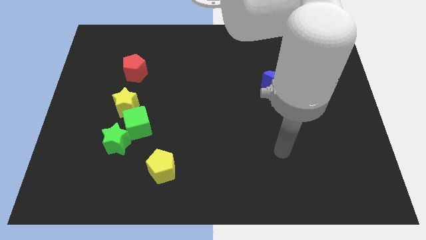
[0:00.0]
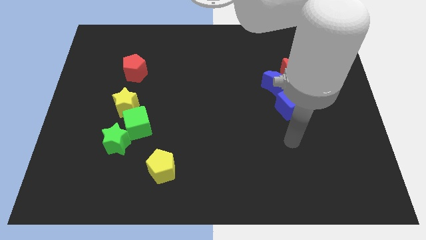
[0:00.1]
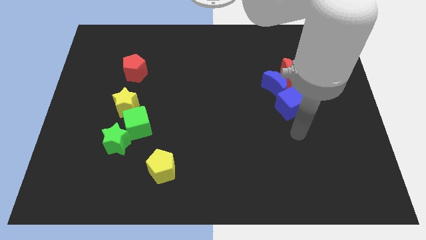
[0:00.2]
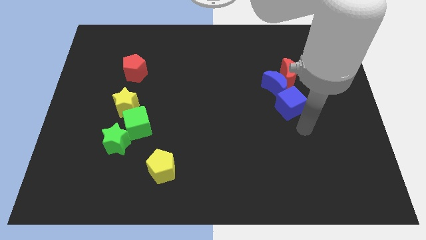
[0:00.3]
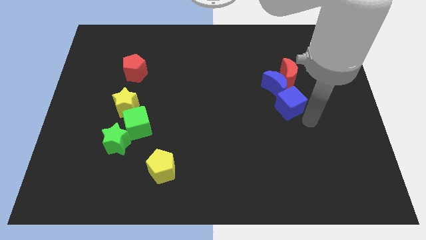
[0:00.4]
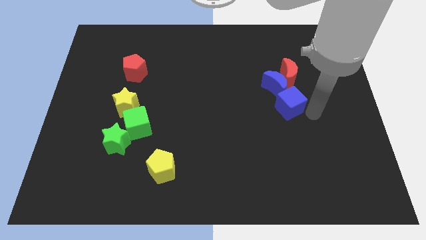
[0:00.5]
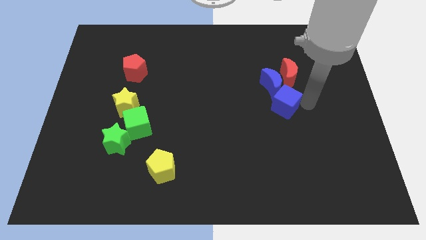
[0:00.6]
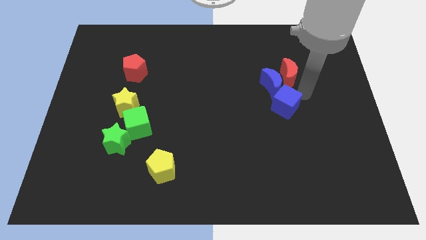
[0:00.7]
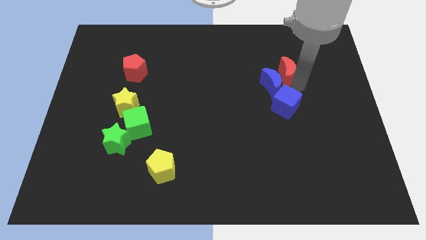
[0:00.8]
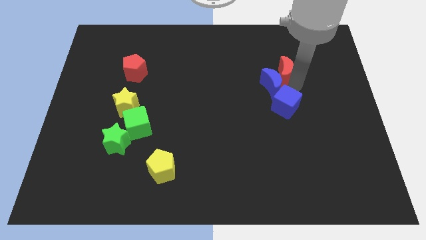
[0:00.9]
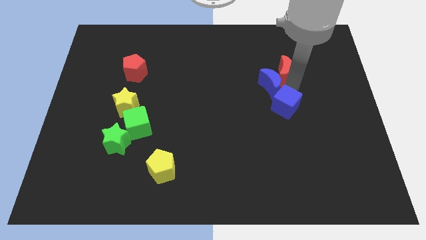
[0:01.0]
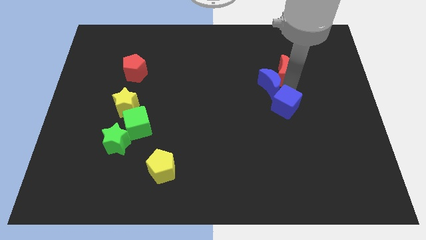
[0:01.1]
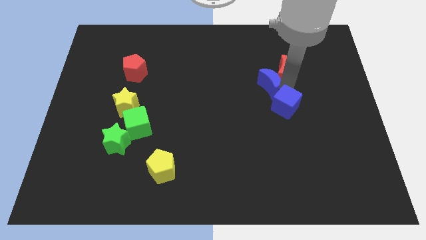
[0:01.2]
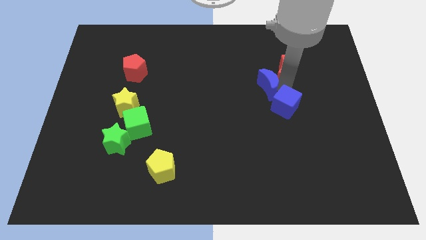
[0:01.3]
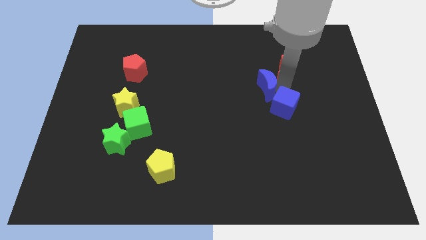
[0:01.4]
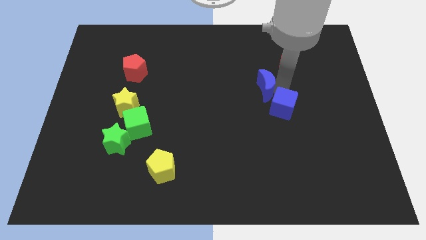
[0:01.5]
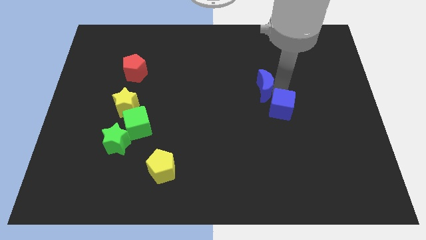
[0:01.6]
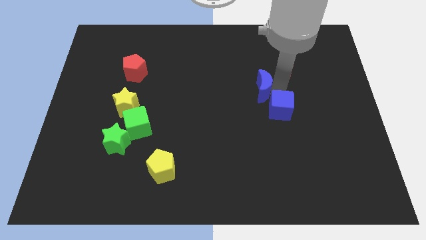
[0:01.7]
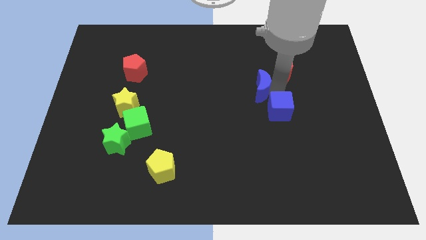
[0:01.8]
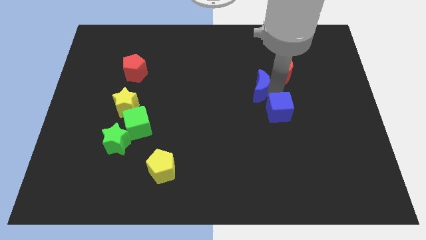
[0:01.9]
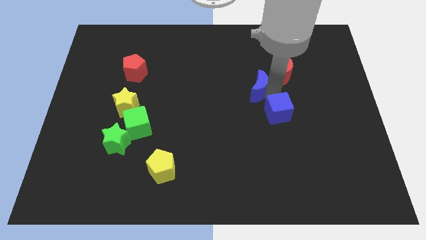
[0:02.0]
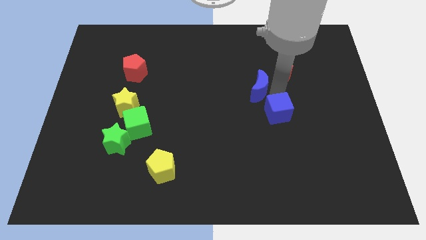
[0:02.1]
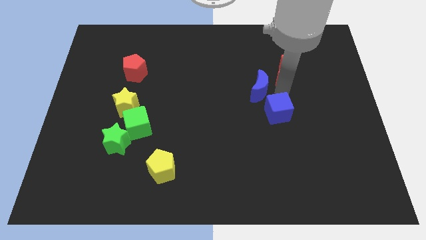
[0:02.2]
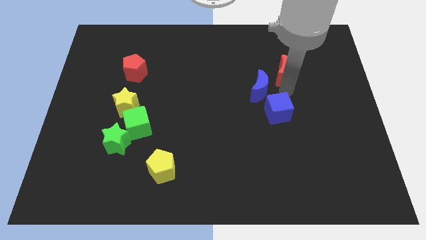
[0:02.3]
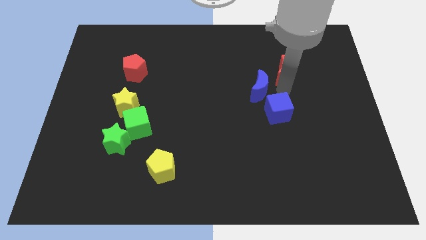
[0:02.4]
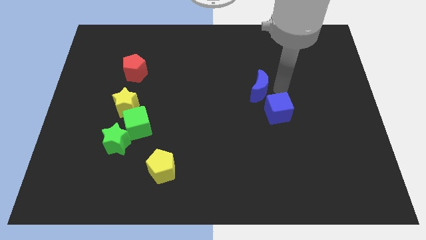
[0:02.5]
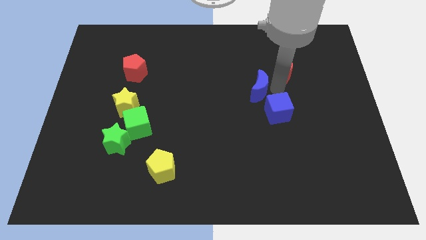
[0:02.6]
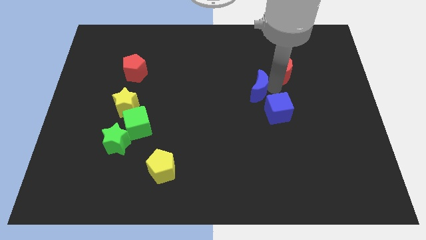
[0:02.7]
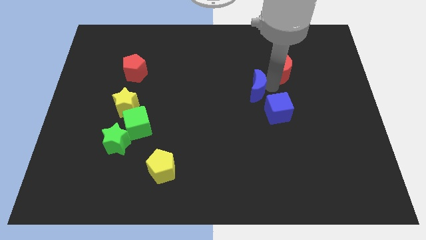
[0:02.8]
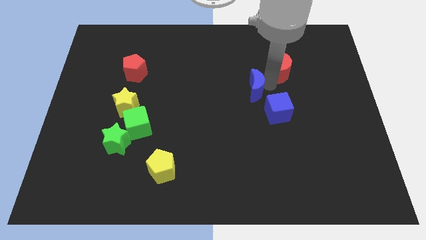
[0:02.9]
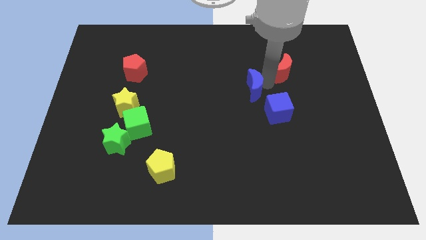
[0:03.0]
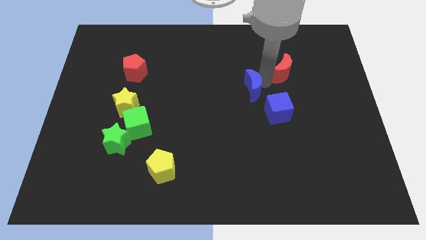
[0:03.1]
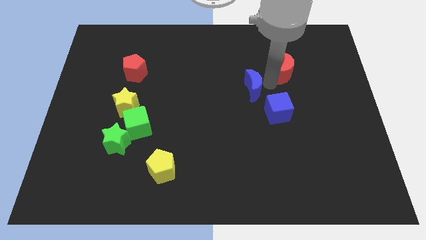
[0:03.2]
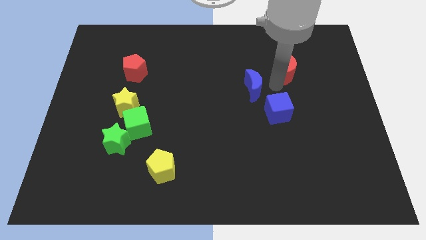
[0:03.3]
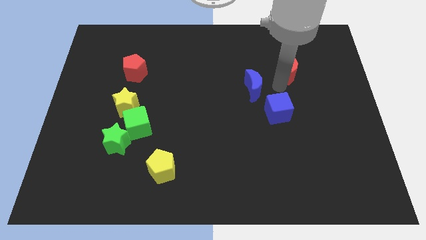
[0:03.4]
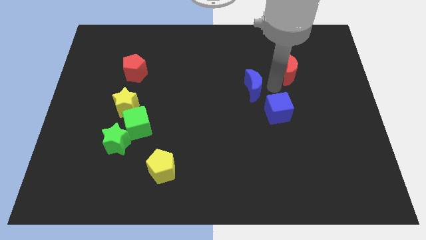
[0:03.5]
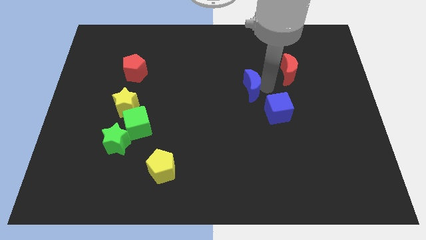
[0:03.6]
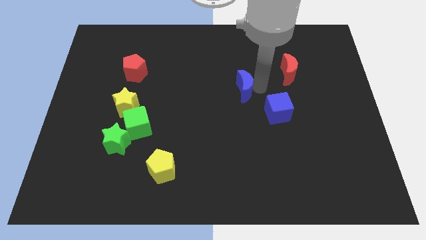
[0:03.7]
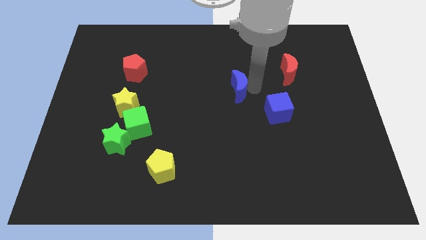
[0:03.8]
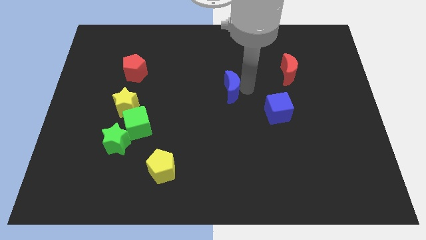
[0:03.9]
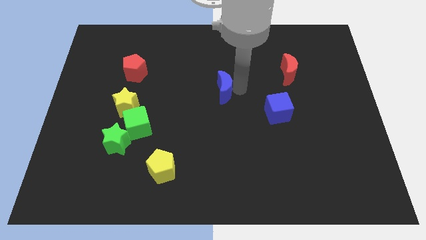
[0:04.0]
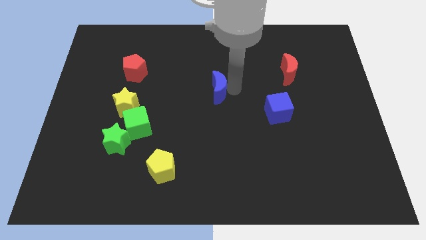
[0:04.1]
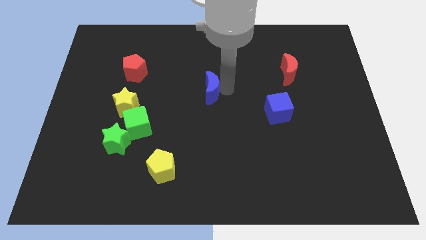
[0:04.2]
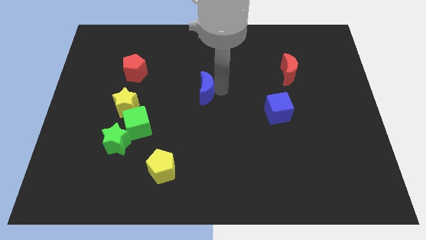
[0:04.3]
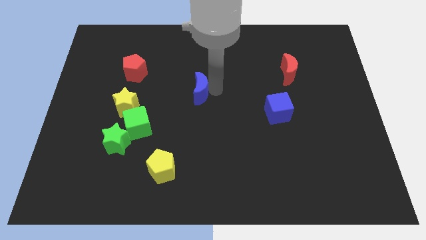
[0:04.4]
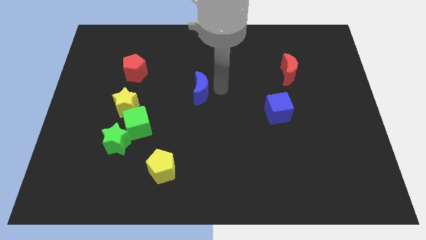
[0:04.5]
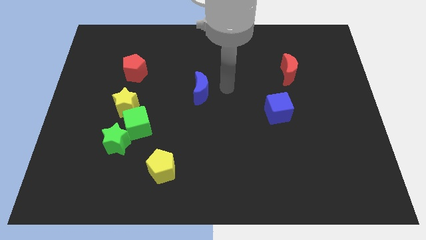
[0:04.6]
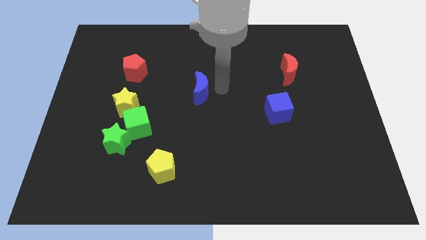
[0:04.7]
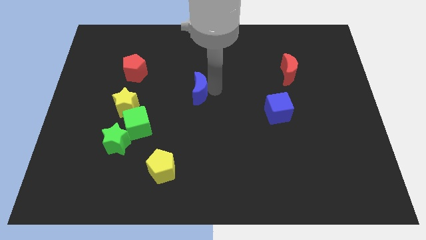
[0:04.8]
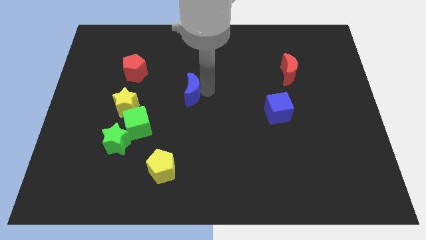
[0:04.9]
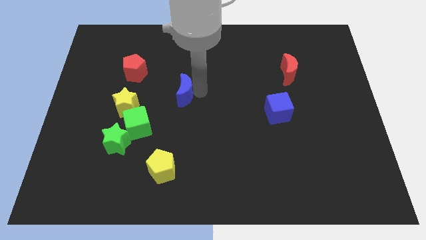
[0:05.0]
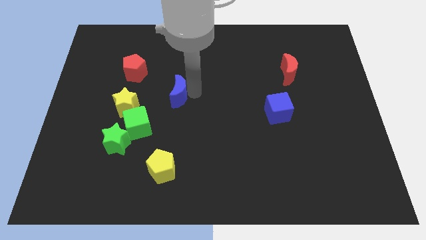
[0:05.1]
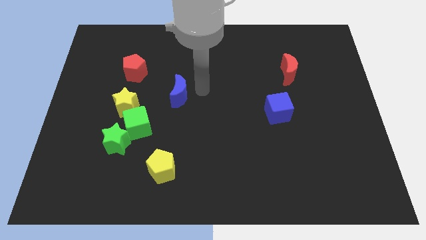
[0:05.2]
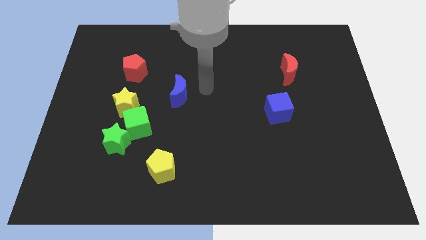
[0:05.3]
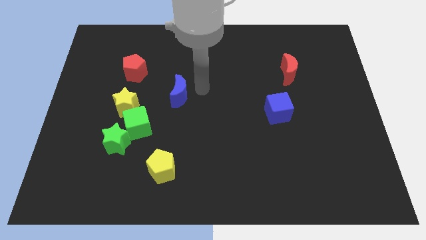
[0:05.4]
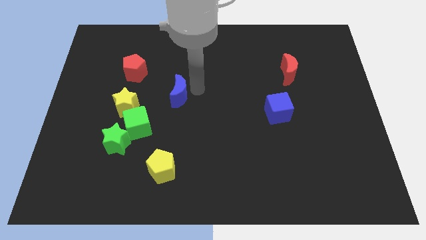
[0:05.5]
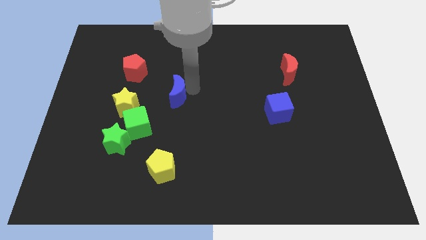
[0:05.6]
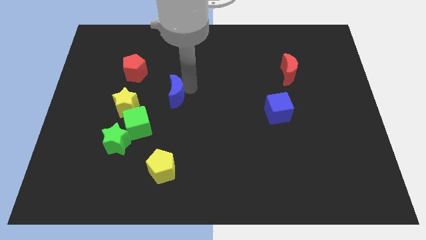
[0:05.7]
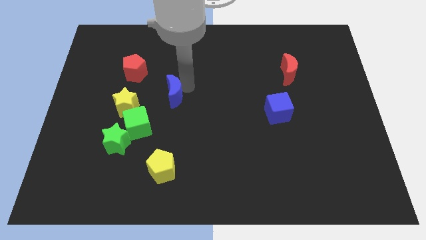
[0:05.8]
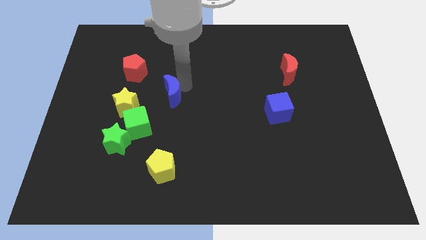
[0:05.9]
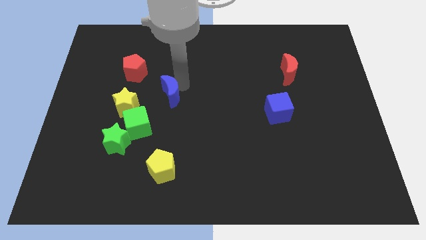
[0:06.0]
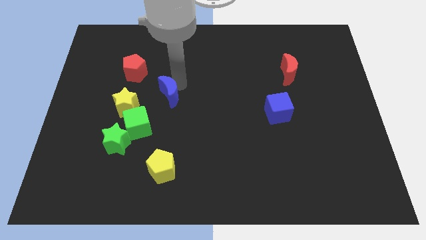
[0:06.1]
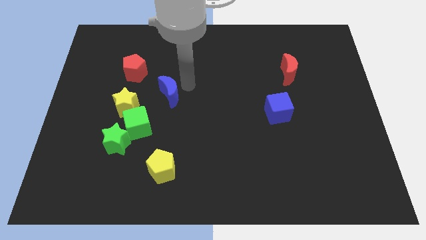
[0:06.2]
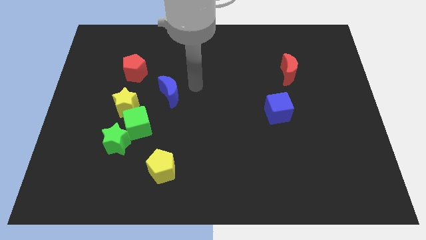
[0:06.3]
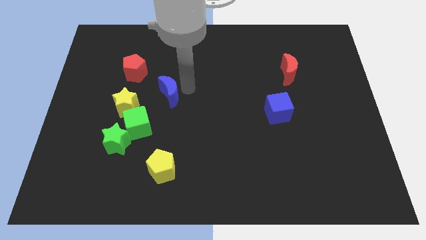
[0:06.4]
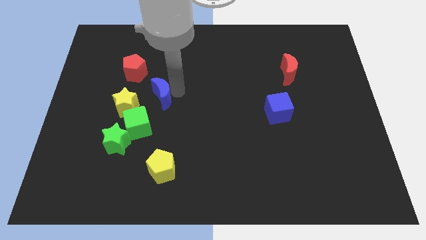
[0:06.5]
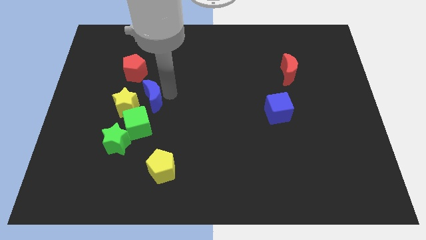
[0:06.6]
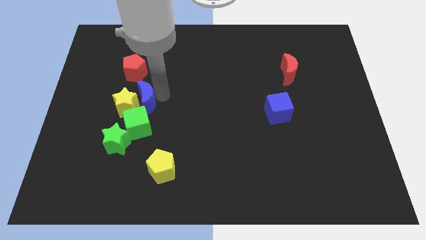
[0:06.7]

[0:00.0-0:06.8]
slide the blue moon to the yellow star
